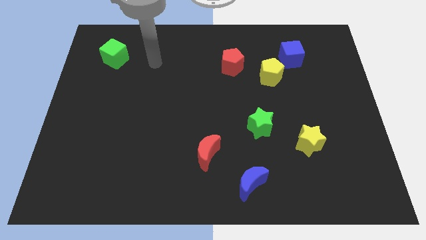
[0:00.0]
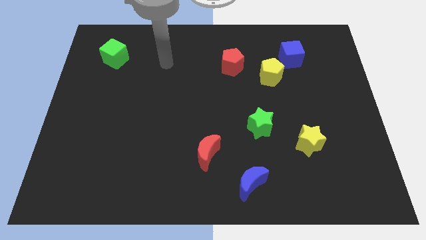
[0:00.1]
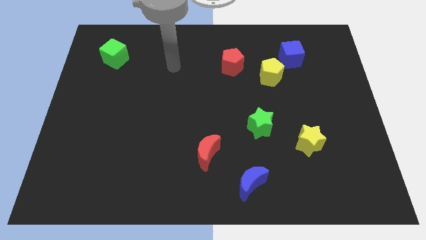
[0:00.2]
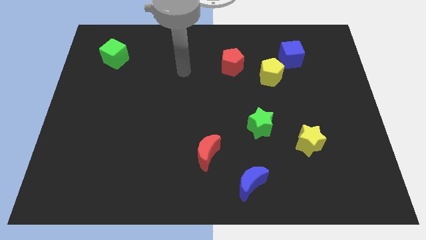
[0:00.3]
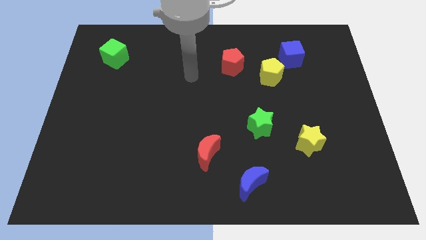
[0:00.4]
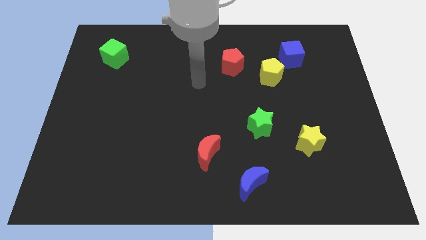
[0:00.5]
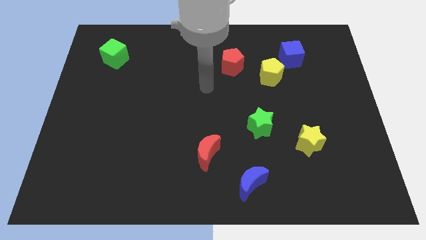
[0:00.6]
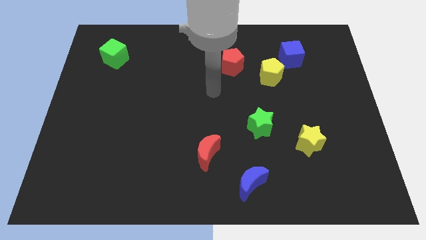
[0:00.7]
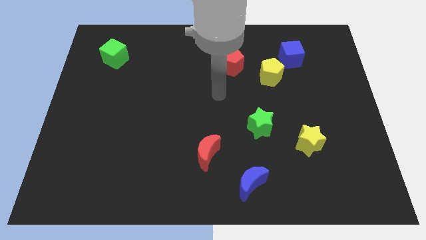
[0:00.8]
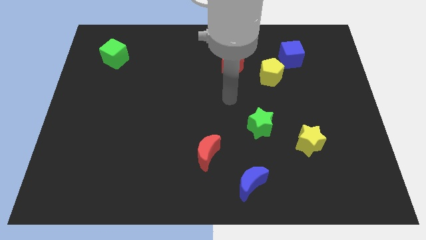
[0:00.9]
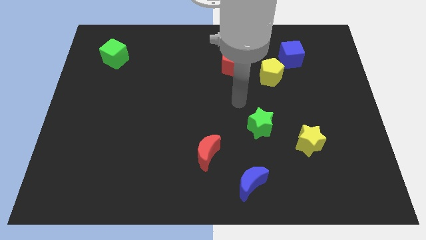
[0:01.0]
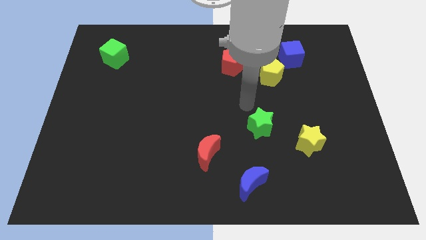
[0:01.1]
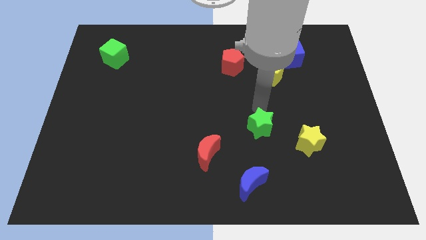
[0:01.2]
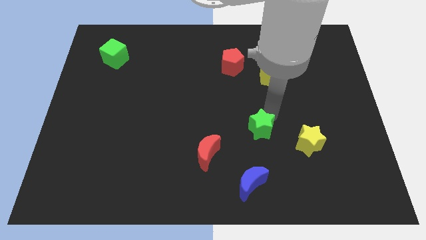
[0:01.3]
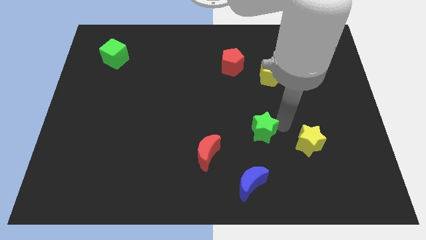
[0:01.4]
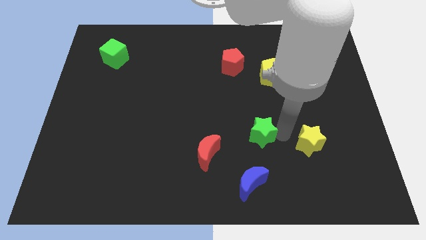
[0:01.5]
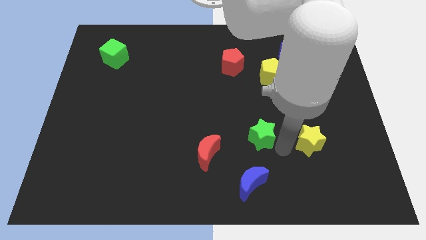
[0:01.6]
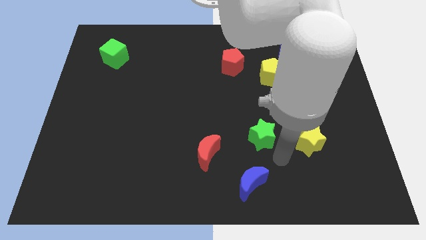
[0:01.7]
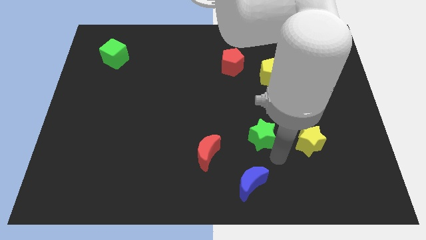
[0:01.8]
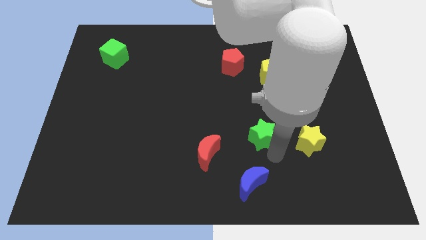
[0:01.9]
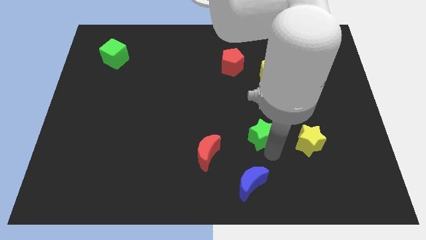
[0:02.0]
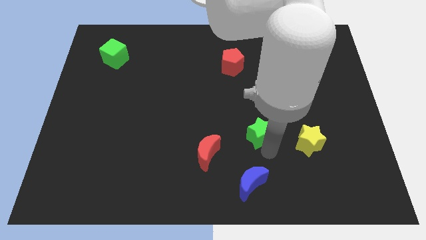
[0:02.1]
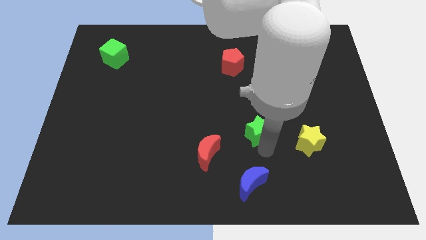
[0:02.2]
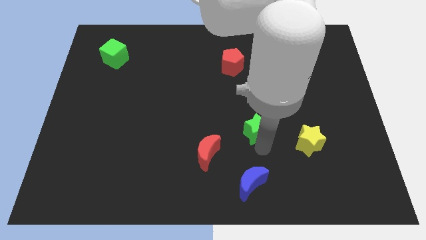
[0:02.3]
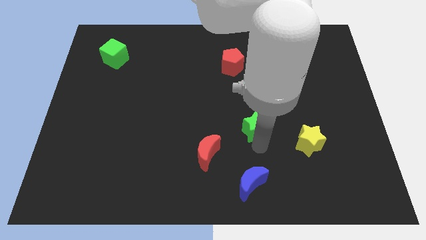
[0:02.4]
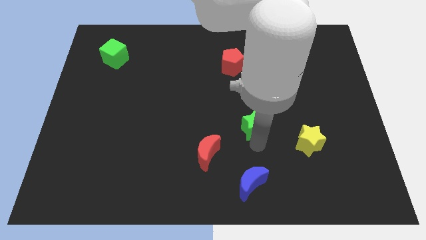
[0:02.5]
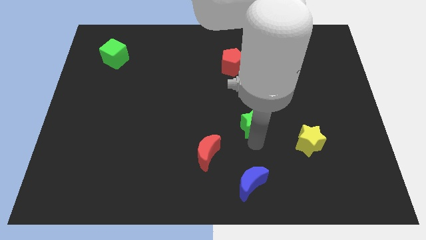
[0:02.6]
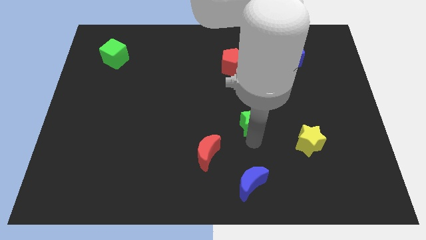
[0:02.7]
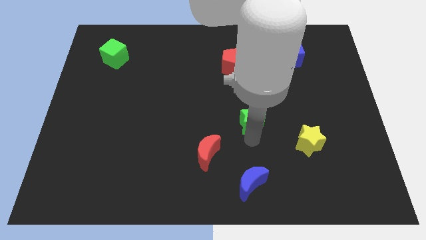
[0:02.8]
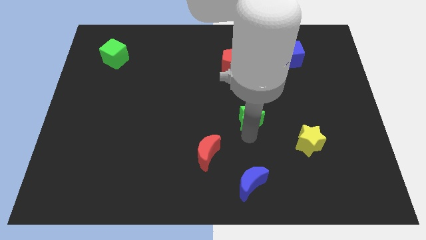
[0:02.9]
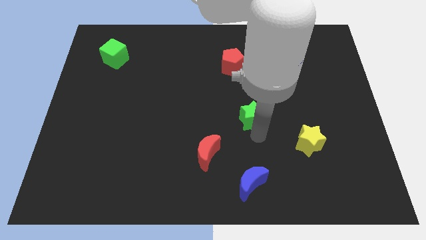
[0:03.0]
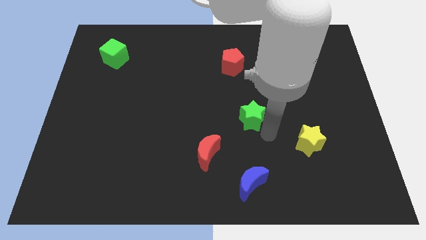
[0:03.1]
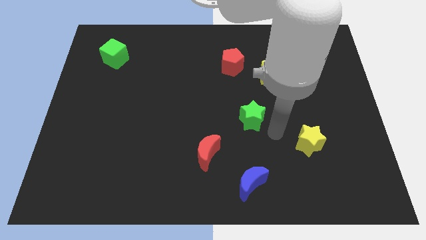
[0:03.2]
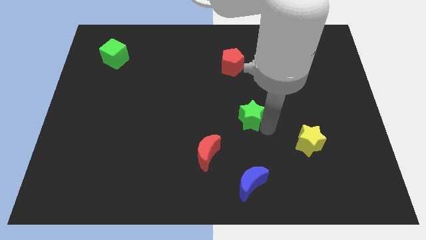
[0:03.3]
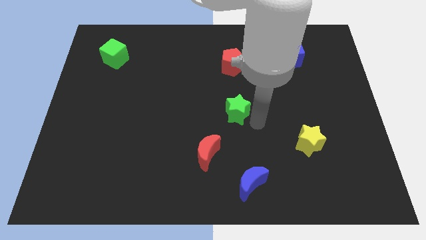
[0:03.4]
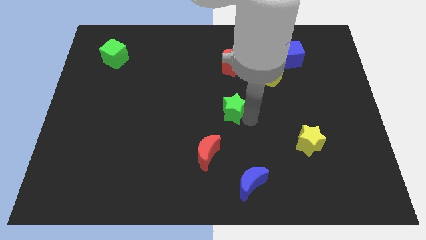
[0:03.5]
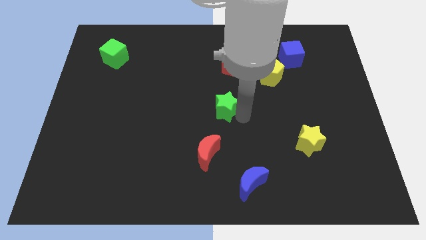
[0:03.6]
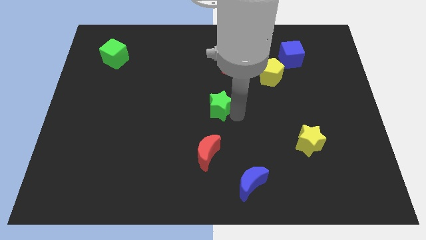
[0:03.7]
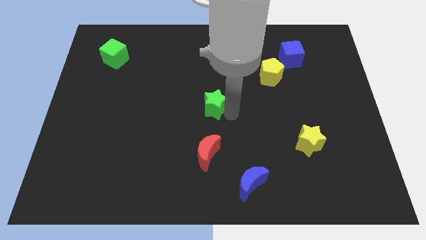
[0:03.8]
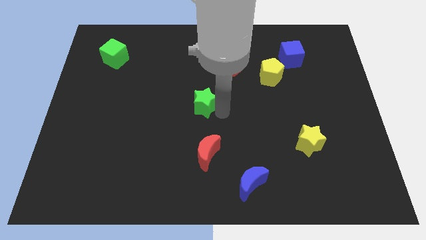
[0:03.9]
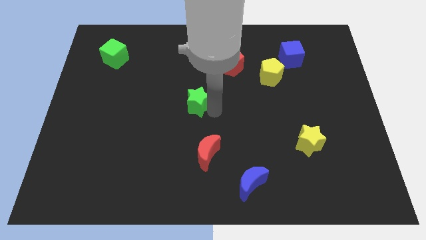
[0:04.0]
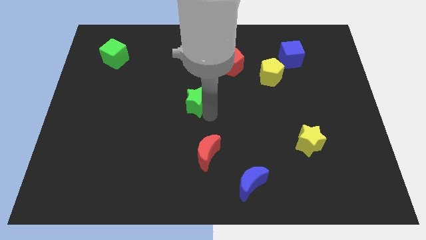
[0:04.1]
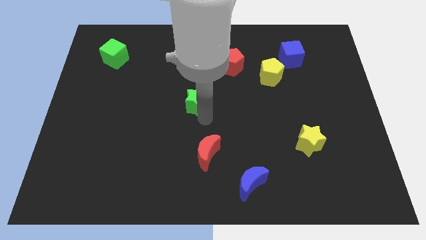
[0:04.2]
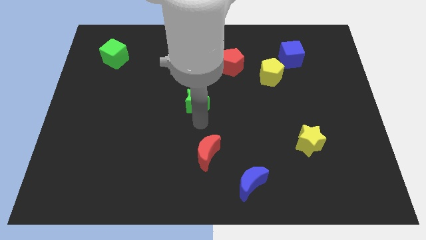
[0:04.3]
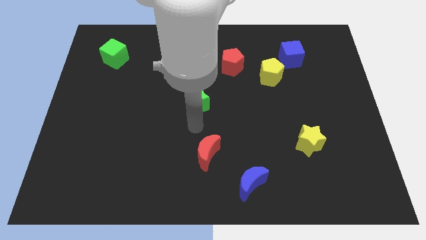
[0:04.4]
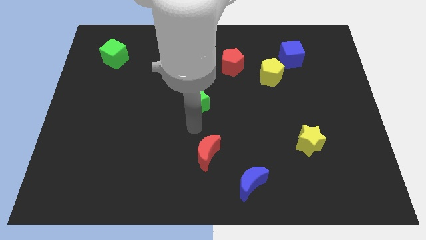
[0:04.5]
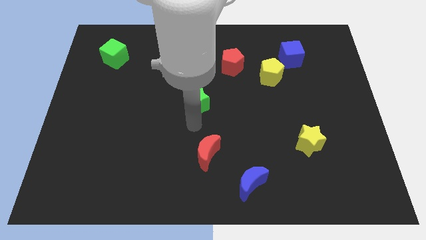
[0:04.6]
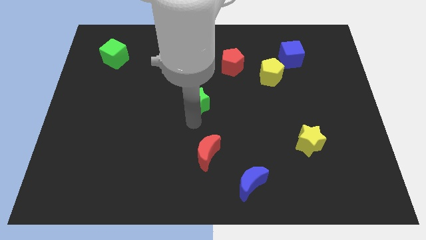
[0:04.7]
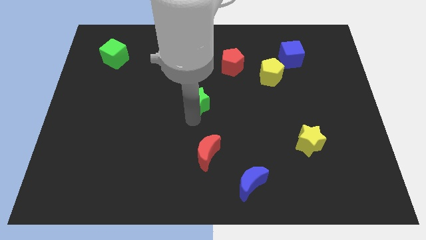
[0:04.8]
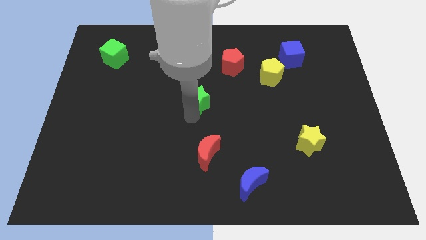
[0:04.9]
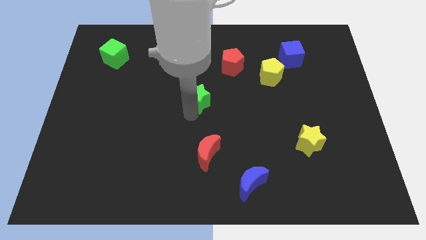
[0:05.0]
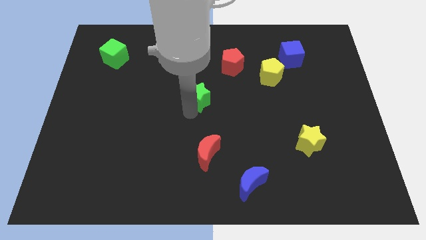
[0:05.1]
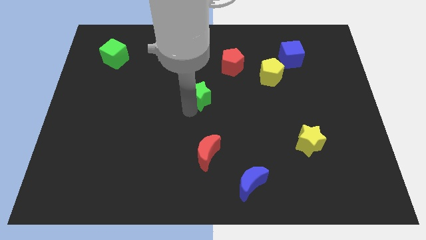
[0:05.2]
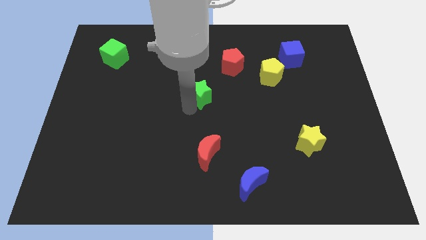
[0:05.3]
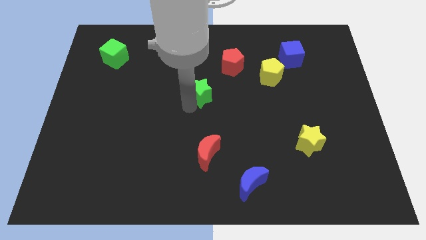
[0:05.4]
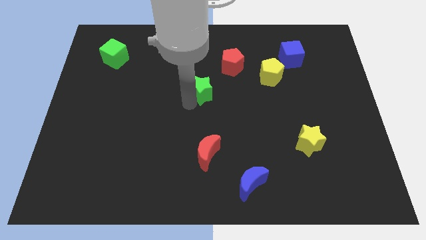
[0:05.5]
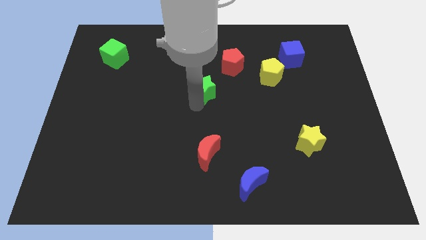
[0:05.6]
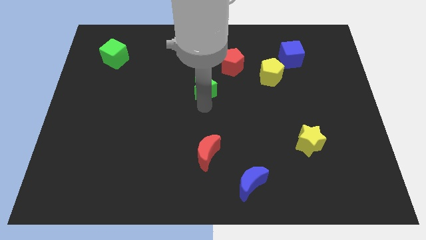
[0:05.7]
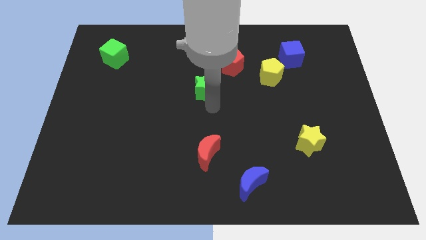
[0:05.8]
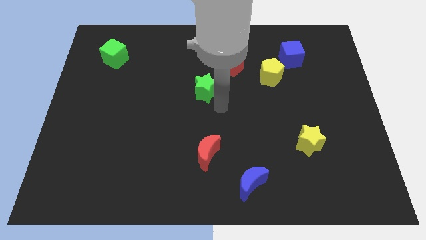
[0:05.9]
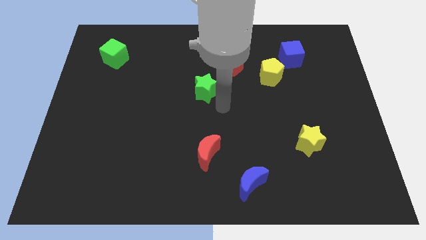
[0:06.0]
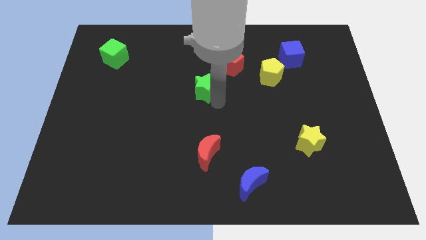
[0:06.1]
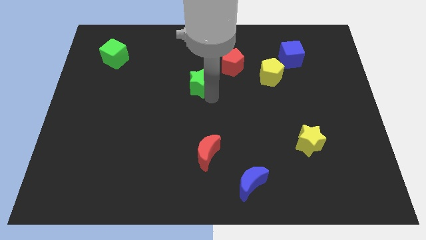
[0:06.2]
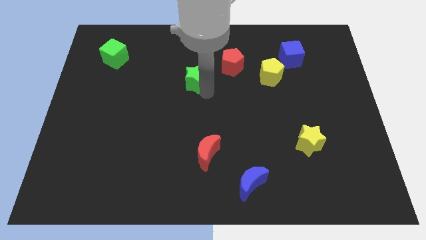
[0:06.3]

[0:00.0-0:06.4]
slide the green star up and then to the left

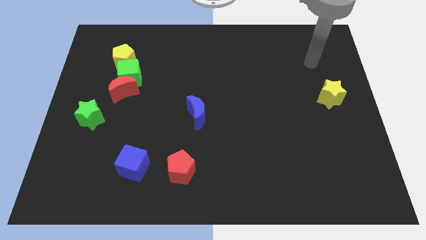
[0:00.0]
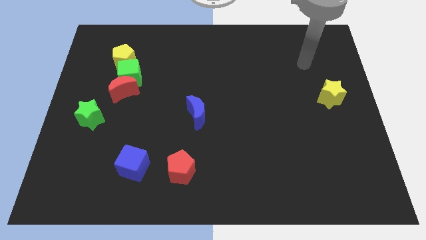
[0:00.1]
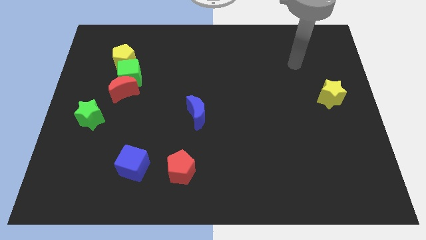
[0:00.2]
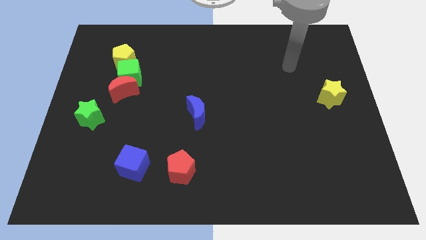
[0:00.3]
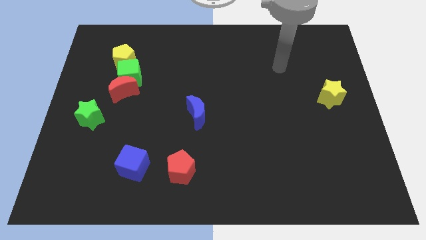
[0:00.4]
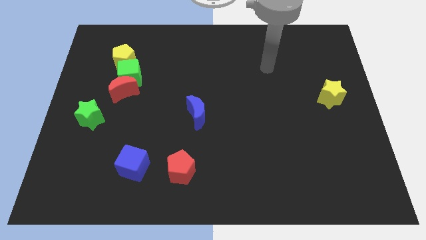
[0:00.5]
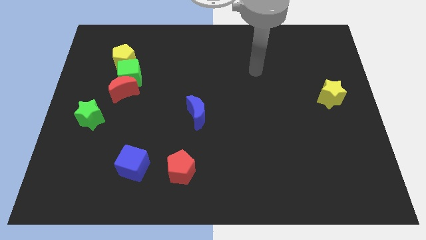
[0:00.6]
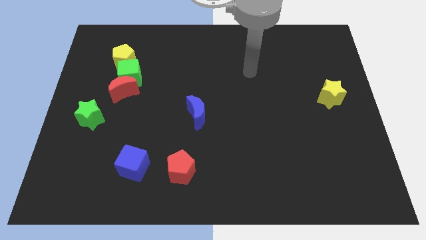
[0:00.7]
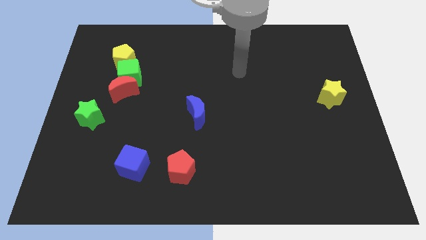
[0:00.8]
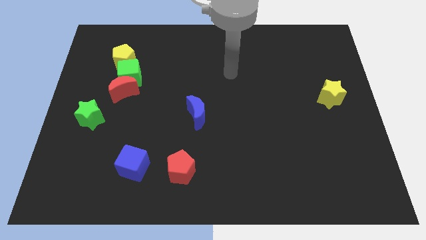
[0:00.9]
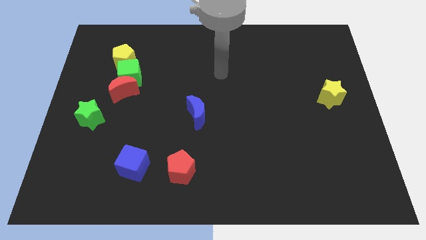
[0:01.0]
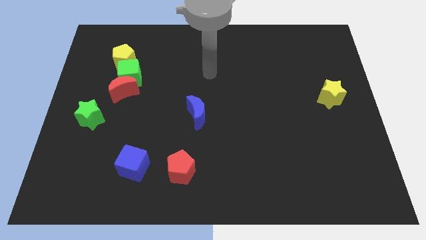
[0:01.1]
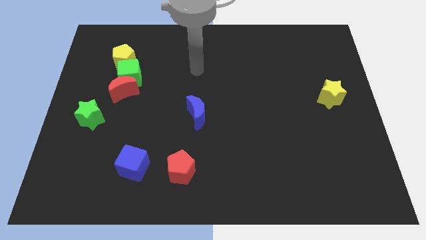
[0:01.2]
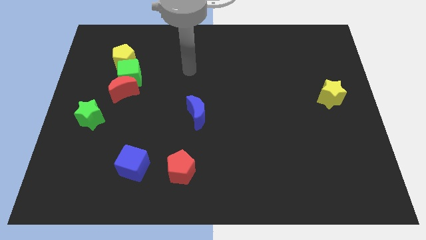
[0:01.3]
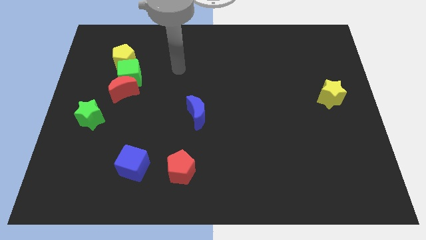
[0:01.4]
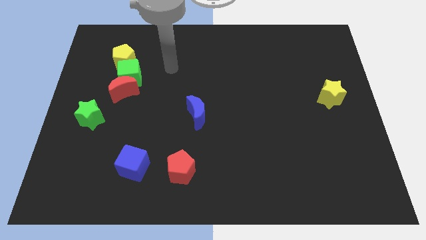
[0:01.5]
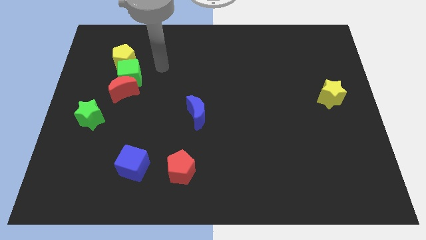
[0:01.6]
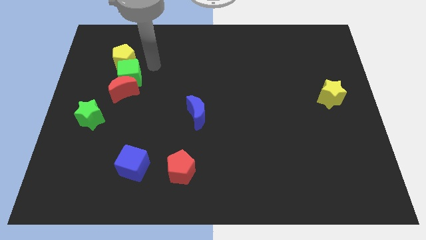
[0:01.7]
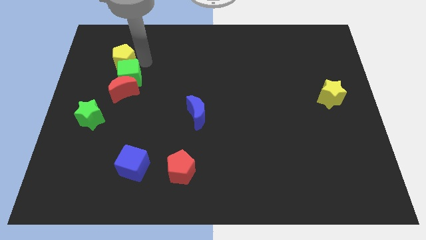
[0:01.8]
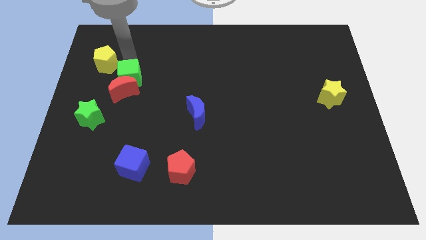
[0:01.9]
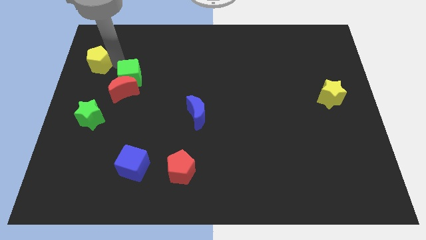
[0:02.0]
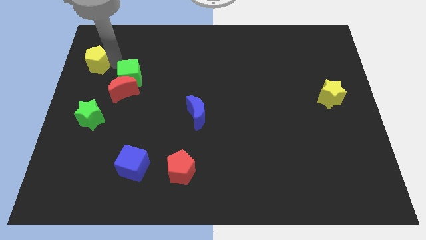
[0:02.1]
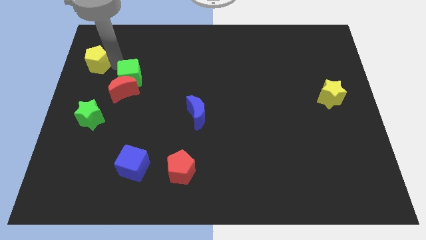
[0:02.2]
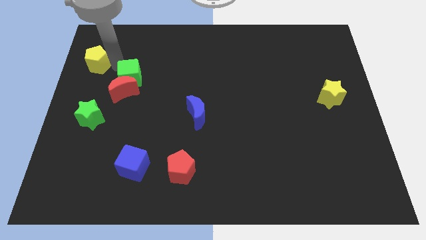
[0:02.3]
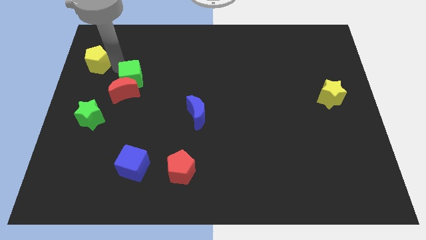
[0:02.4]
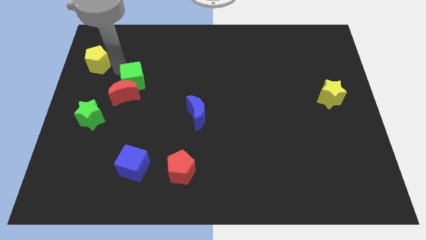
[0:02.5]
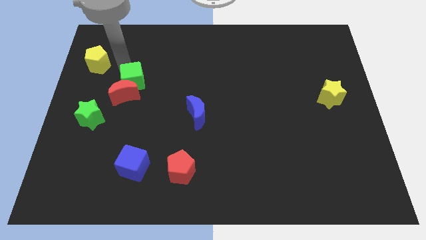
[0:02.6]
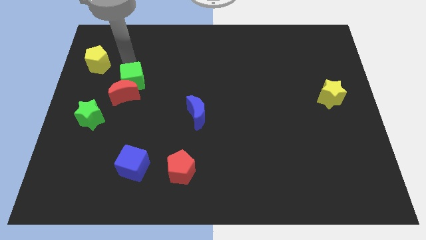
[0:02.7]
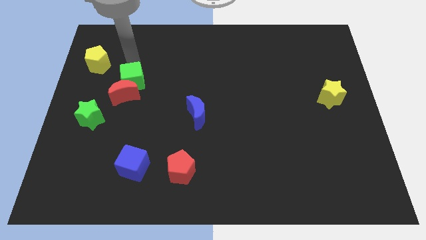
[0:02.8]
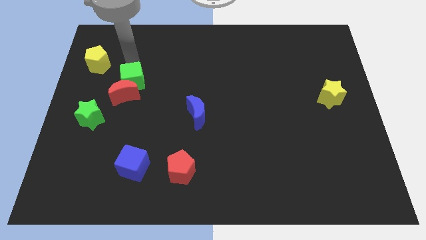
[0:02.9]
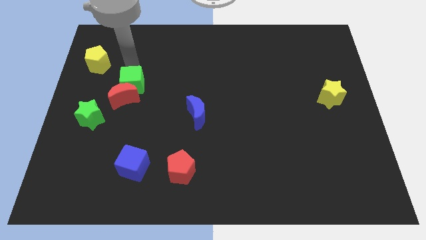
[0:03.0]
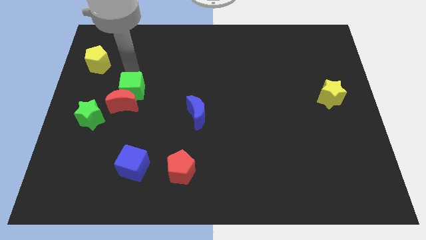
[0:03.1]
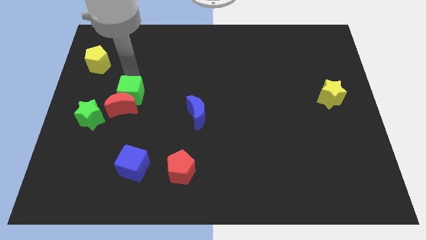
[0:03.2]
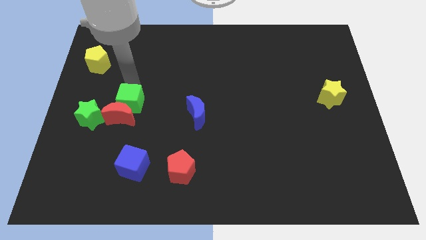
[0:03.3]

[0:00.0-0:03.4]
move the green cube slightly down
